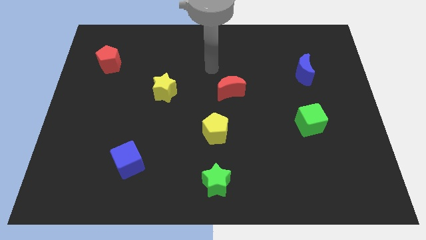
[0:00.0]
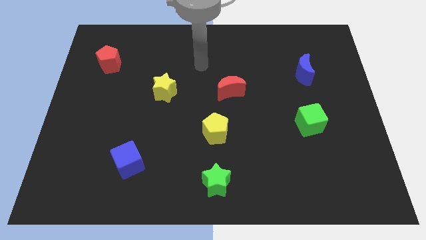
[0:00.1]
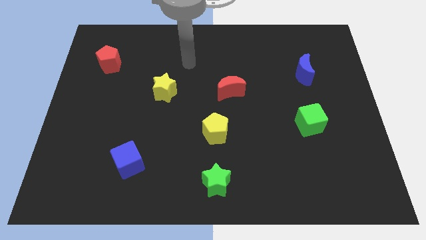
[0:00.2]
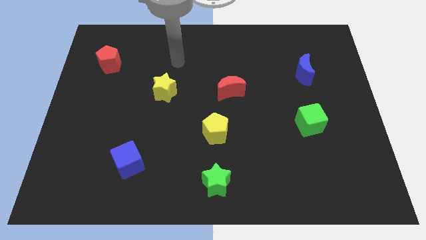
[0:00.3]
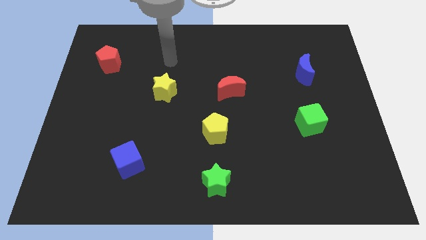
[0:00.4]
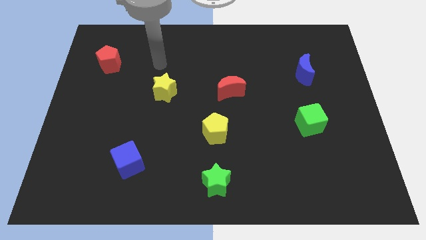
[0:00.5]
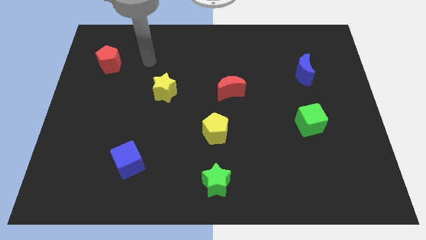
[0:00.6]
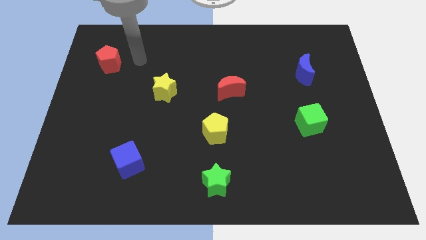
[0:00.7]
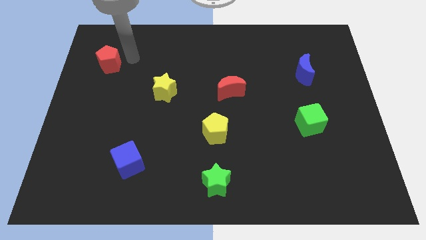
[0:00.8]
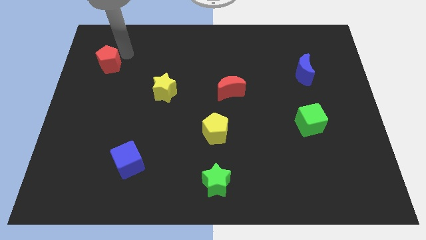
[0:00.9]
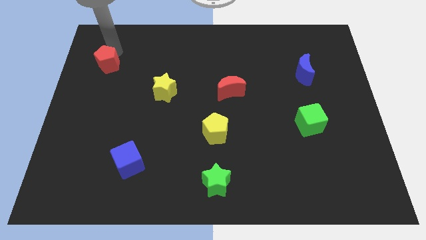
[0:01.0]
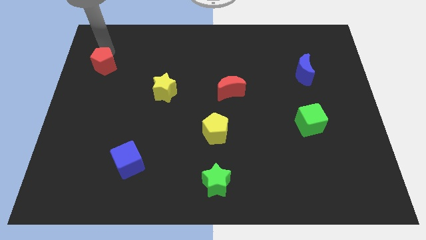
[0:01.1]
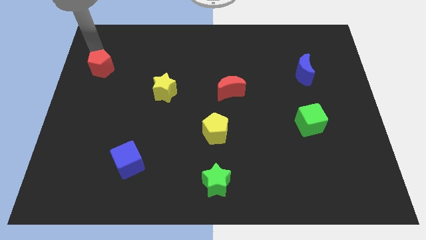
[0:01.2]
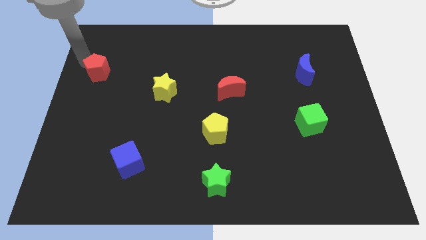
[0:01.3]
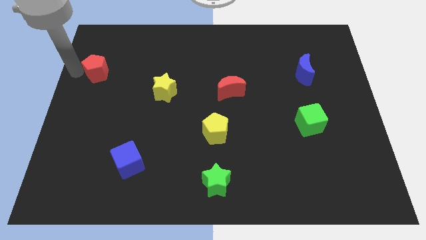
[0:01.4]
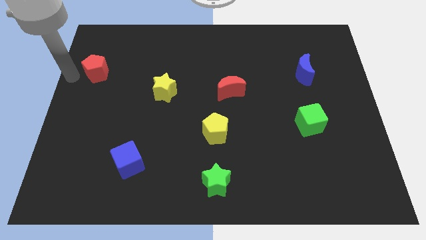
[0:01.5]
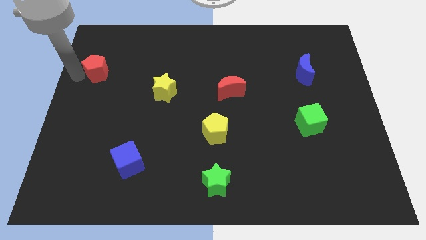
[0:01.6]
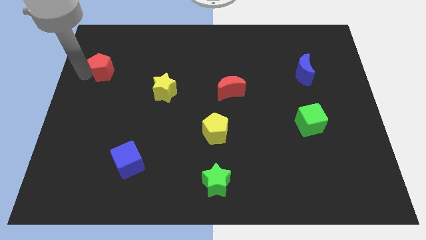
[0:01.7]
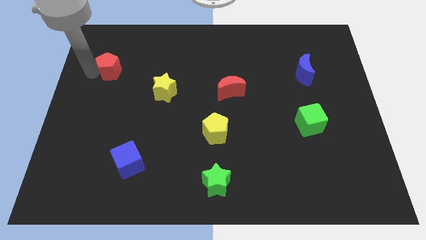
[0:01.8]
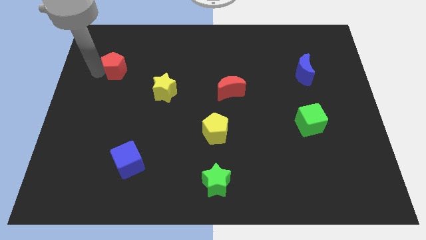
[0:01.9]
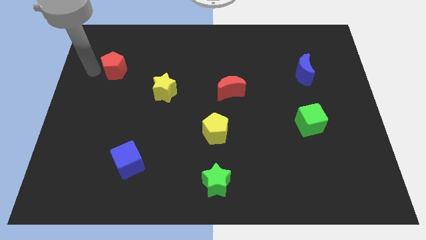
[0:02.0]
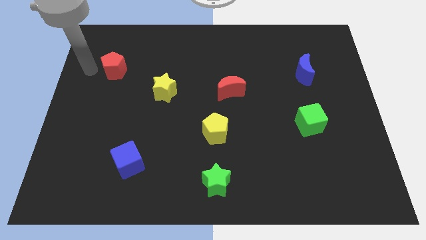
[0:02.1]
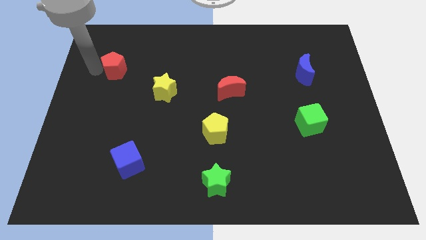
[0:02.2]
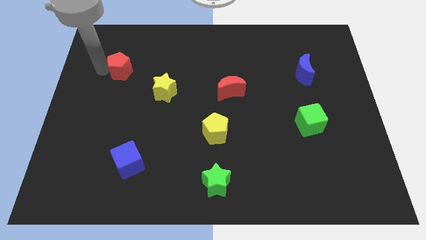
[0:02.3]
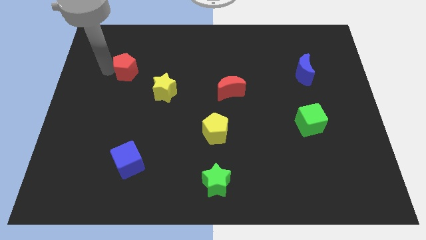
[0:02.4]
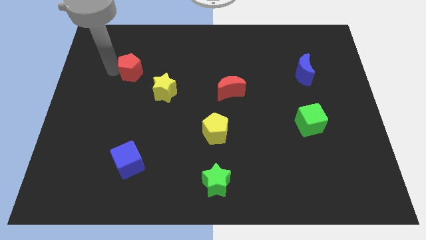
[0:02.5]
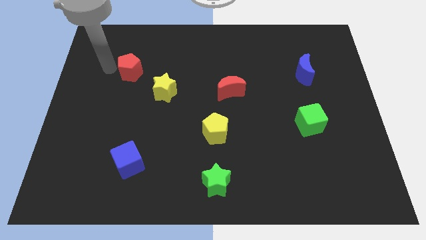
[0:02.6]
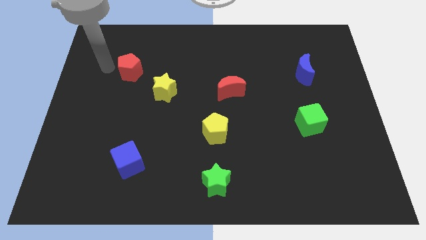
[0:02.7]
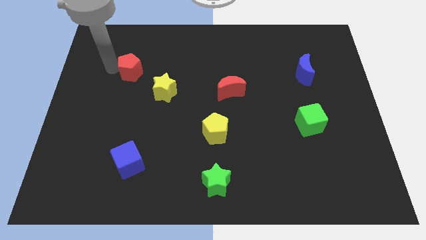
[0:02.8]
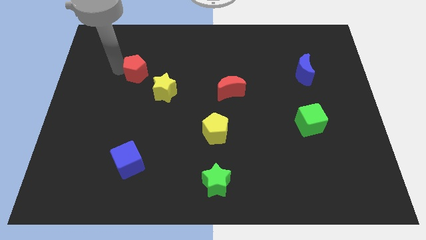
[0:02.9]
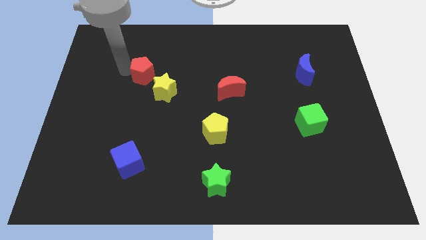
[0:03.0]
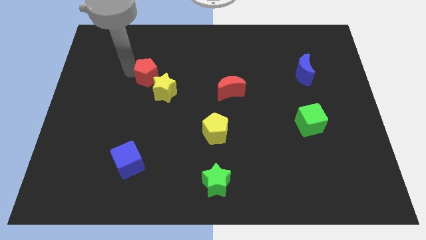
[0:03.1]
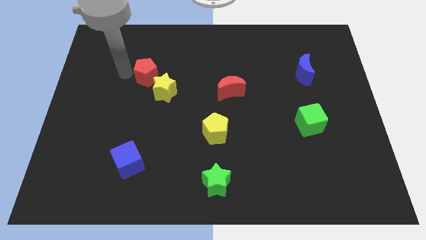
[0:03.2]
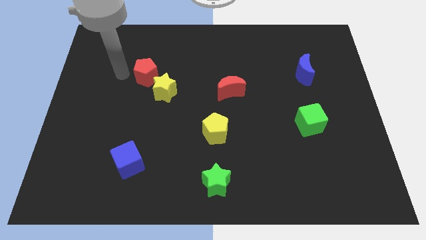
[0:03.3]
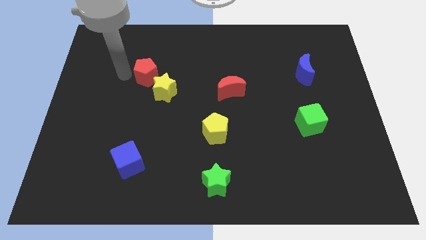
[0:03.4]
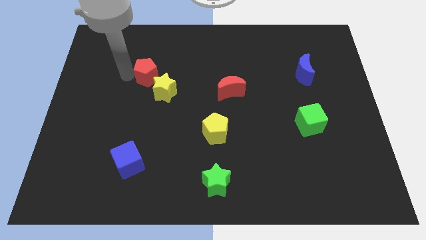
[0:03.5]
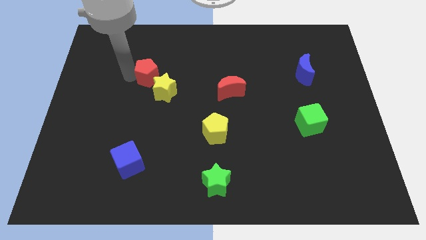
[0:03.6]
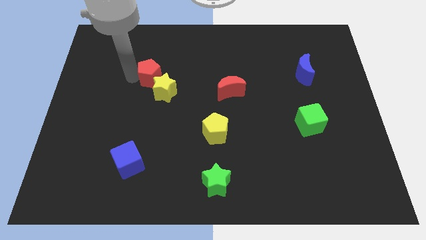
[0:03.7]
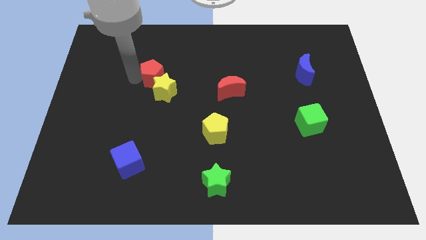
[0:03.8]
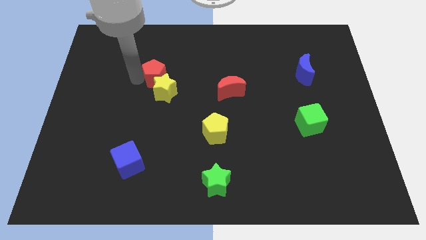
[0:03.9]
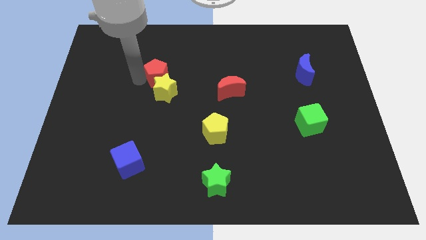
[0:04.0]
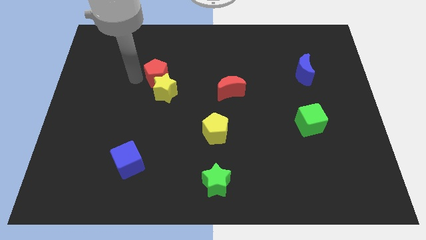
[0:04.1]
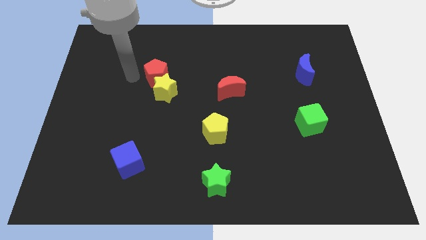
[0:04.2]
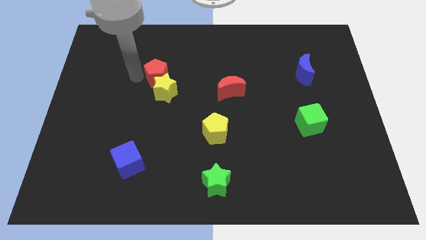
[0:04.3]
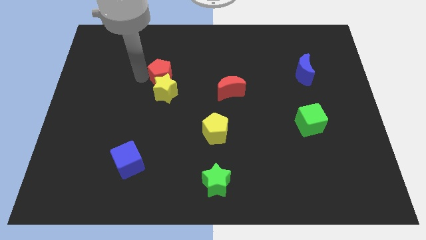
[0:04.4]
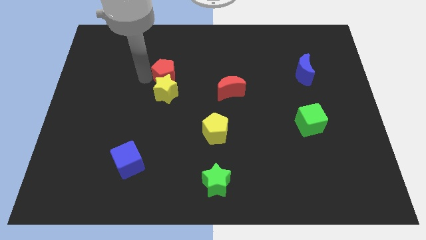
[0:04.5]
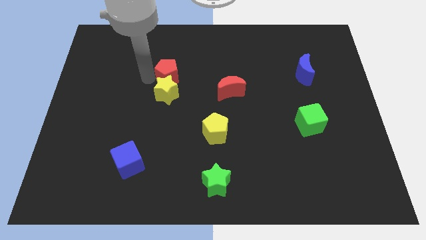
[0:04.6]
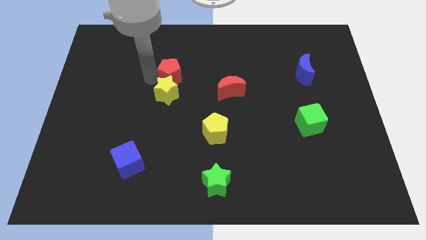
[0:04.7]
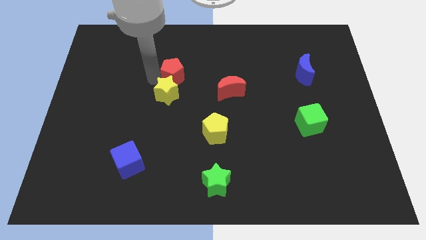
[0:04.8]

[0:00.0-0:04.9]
slide the red pentagon to the middle of the board
